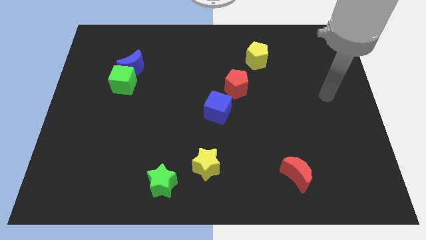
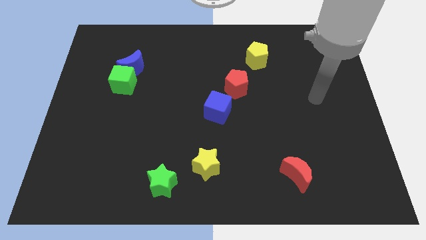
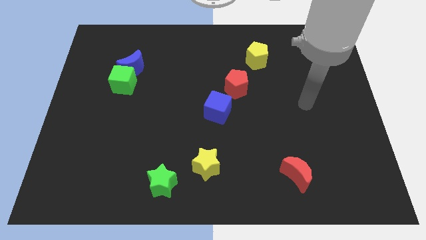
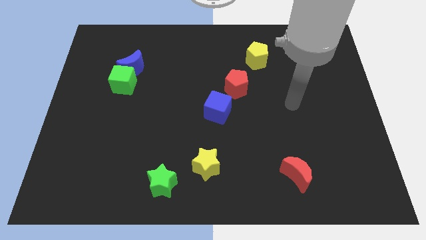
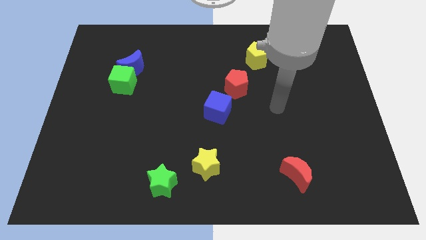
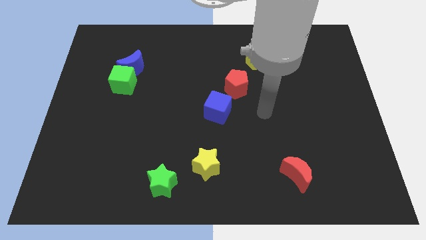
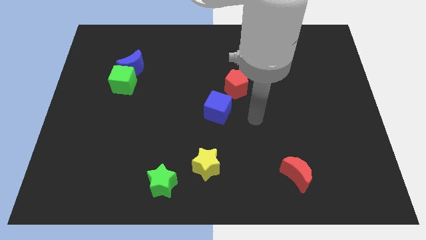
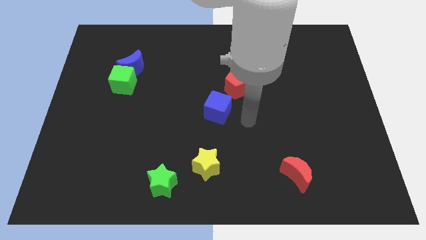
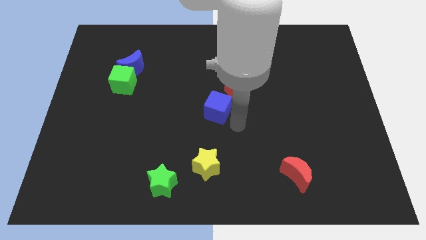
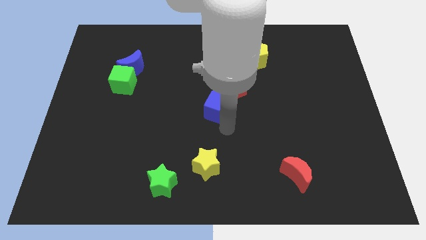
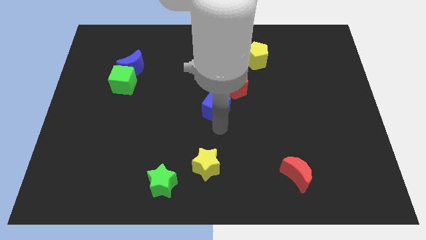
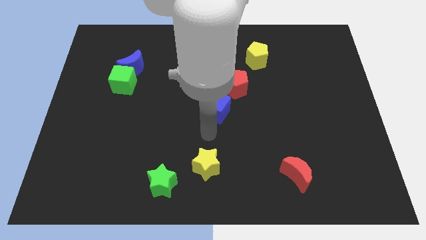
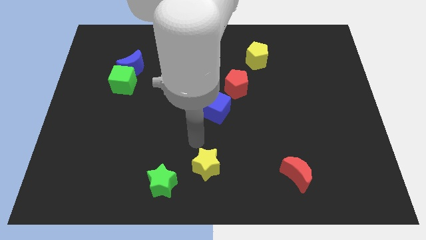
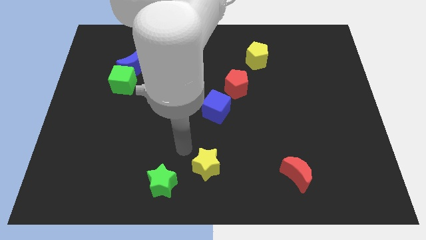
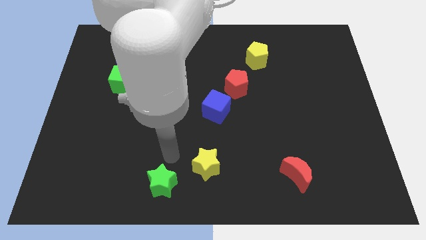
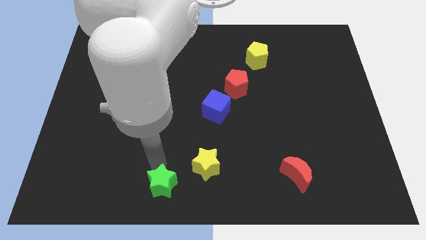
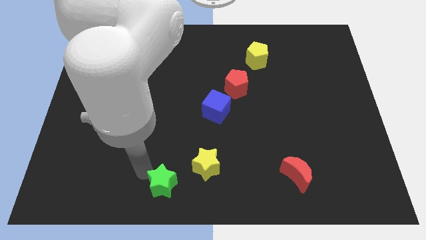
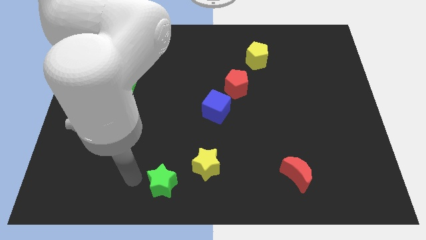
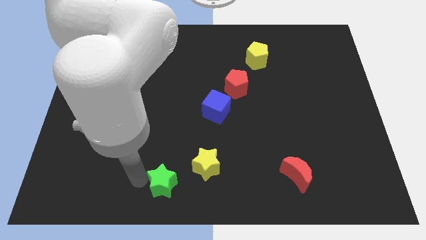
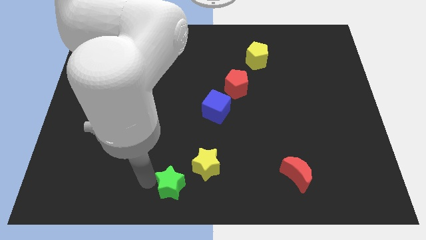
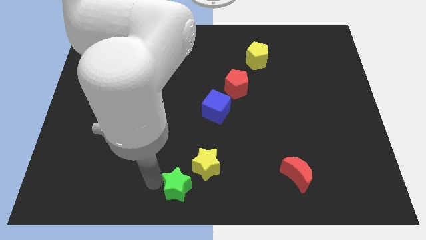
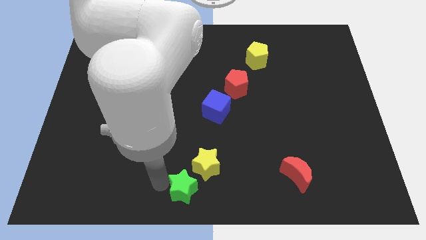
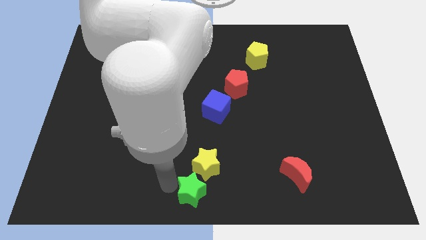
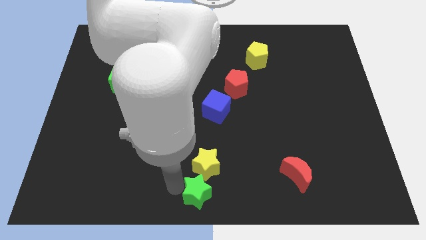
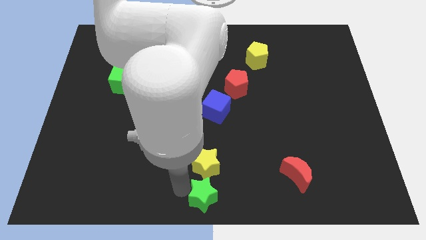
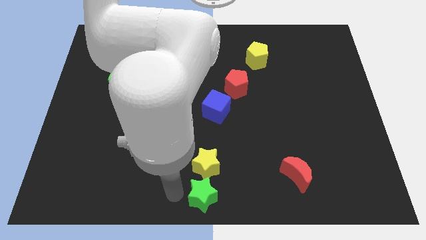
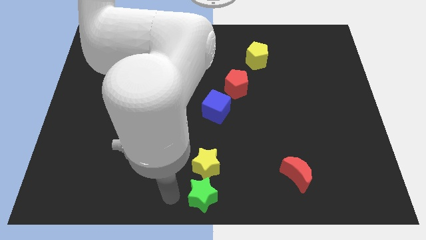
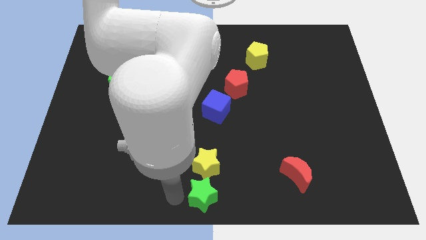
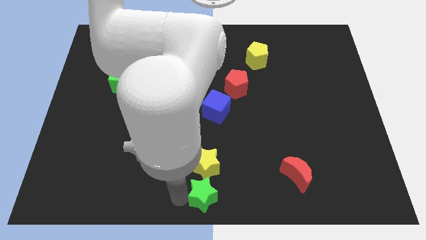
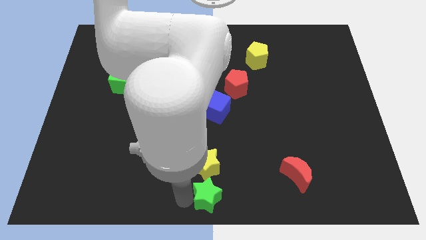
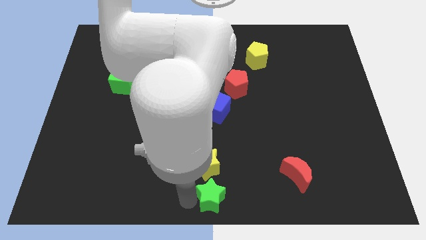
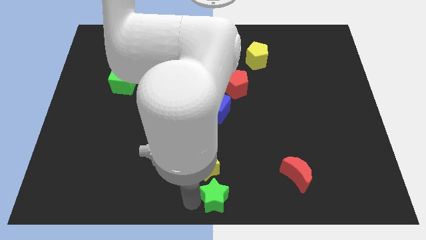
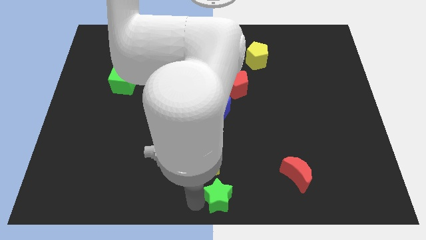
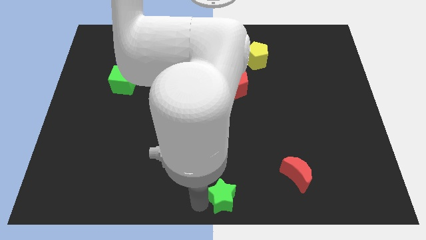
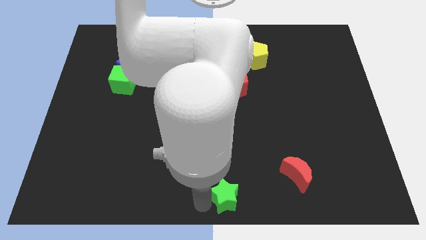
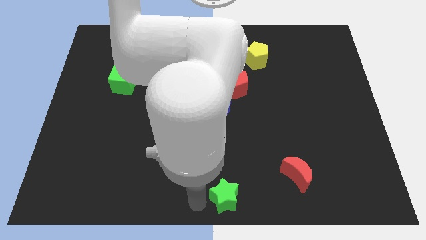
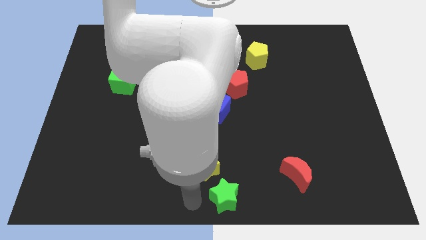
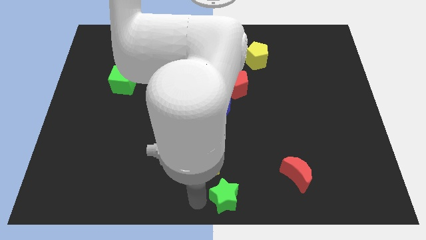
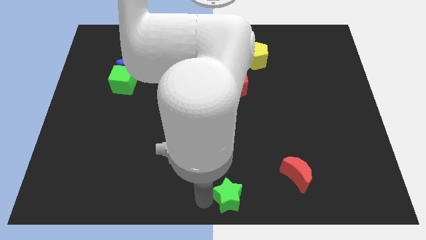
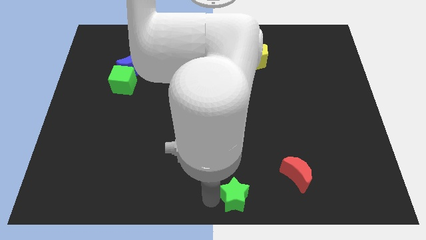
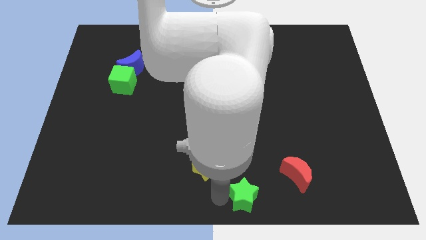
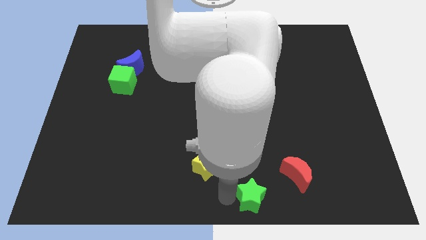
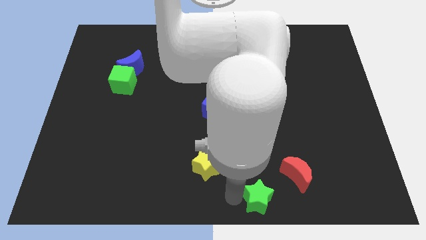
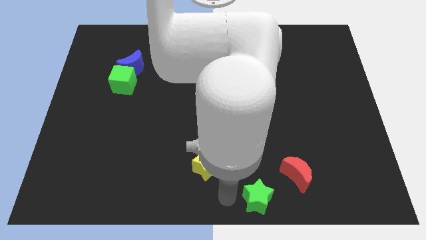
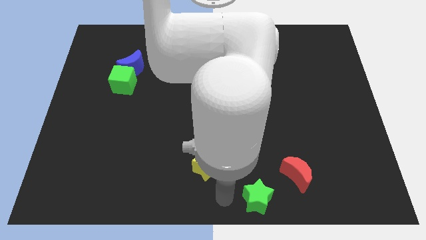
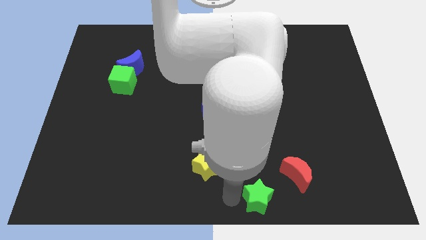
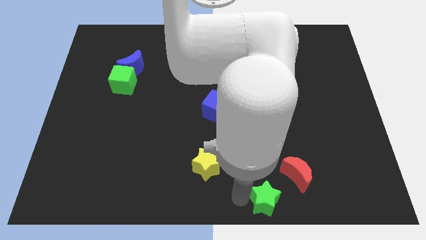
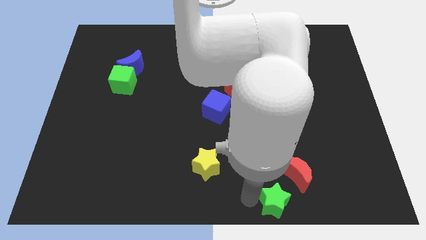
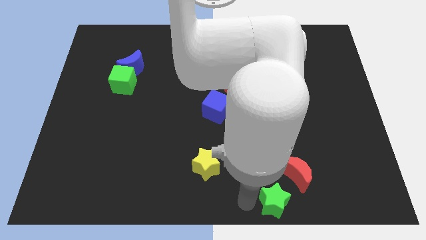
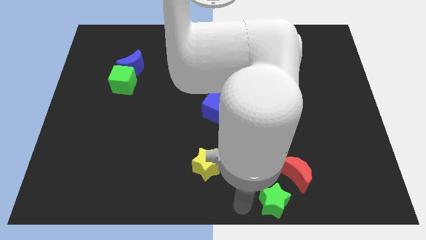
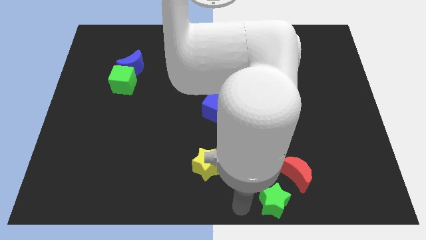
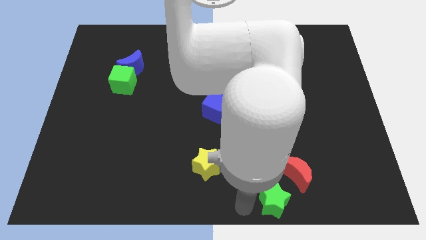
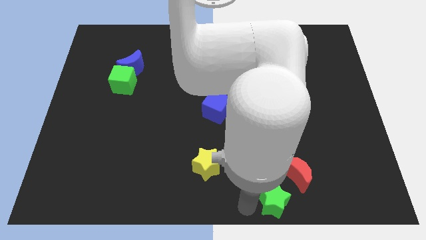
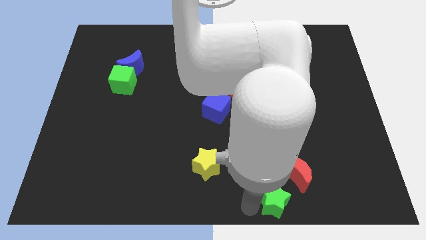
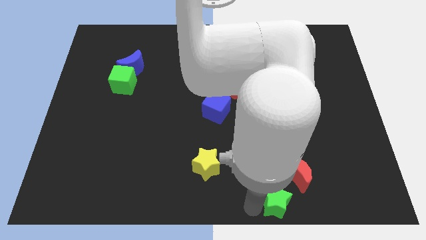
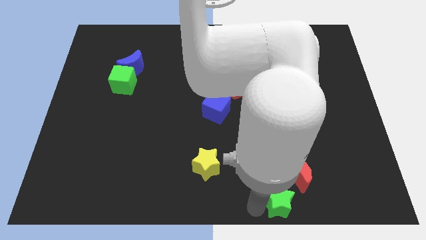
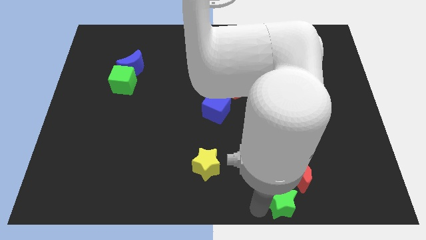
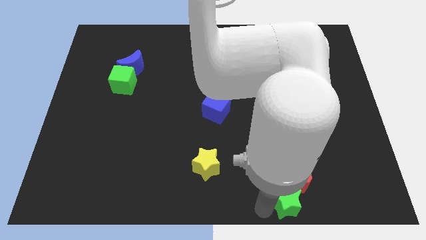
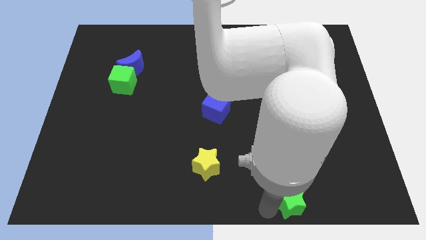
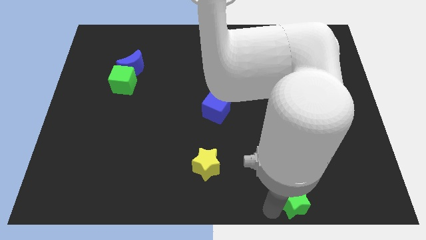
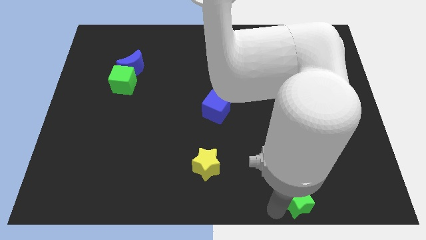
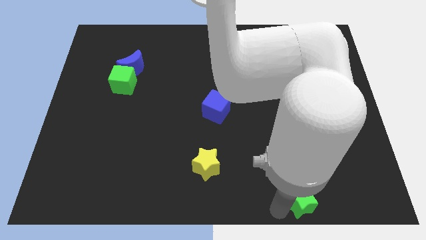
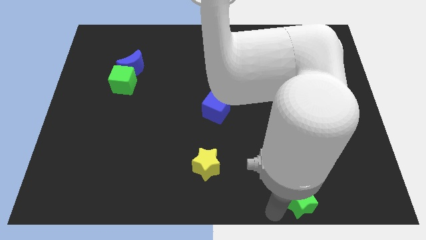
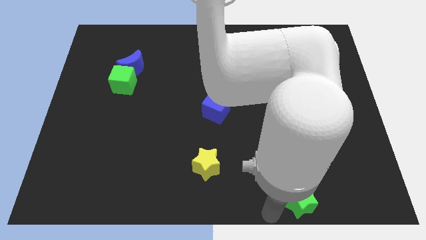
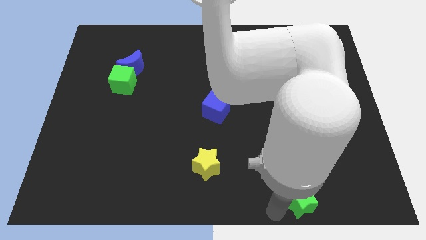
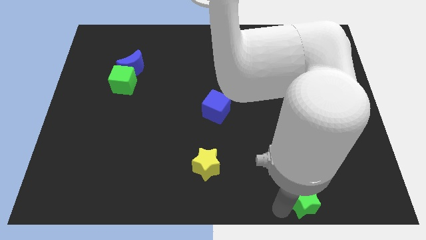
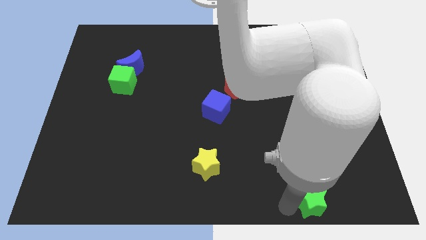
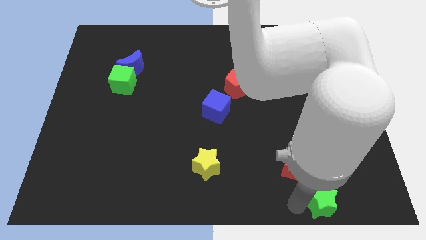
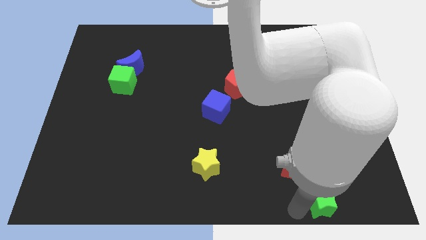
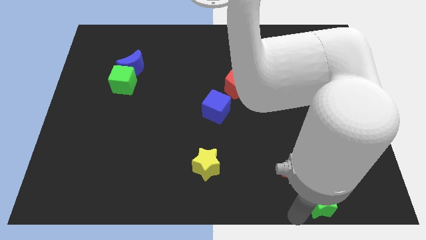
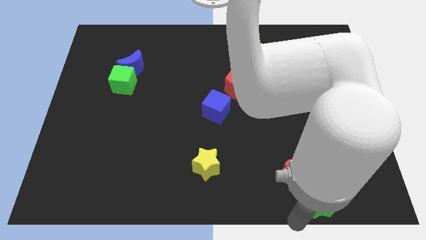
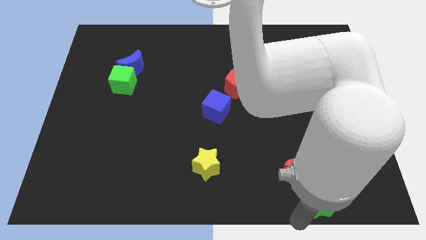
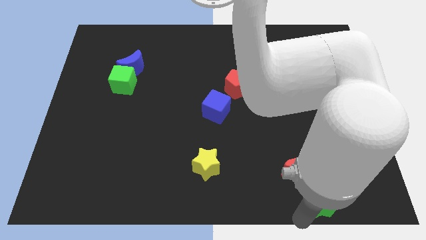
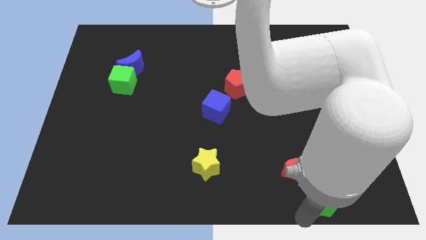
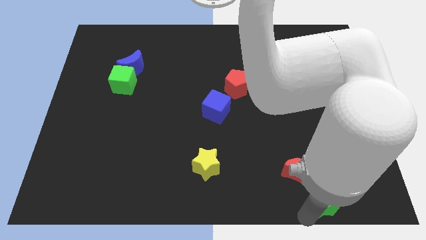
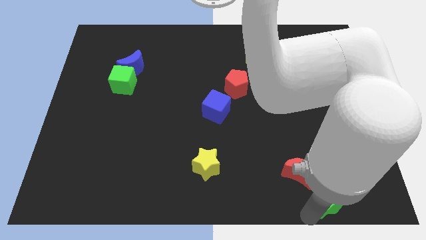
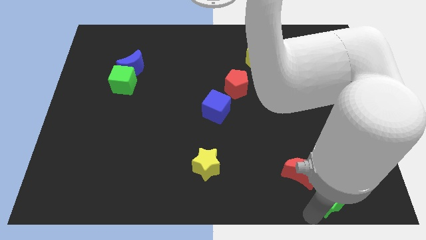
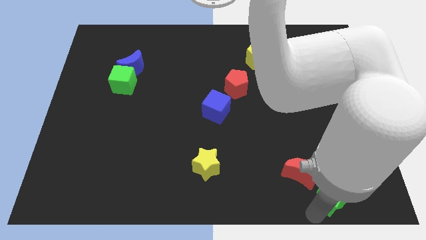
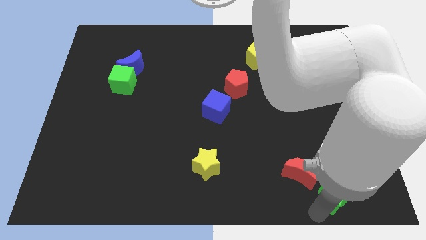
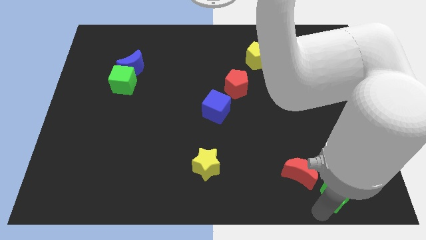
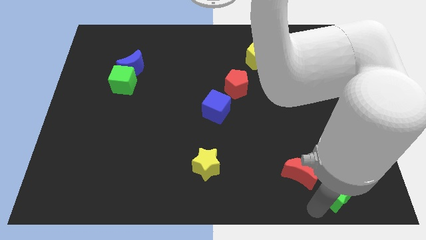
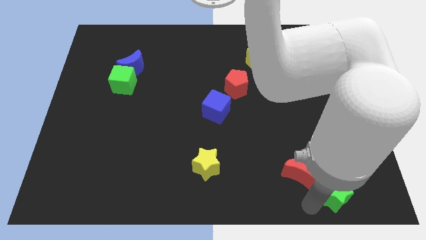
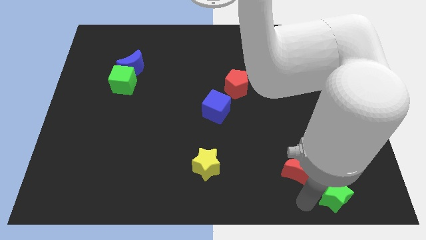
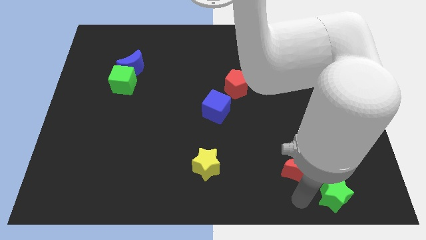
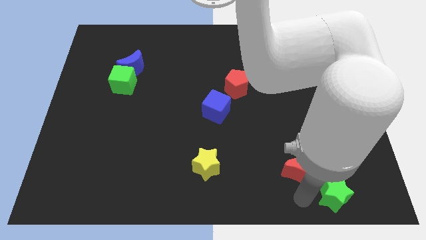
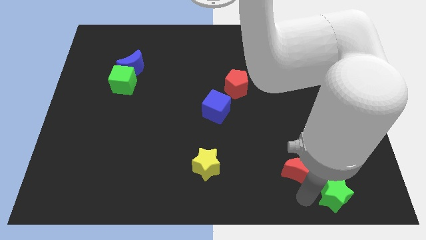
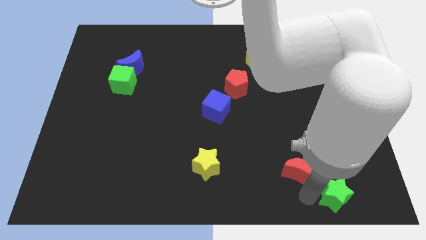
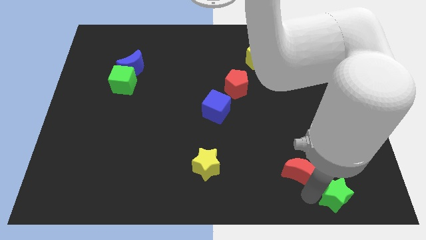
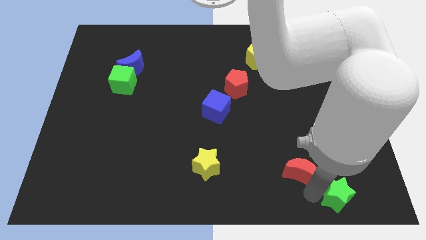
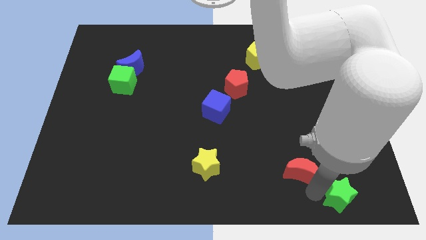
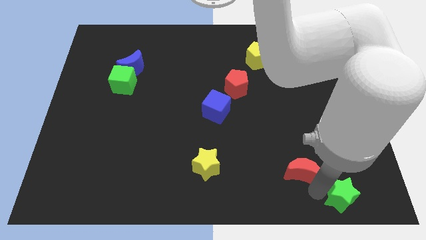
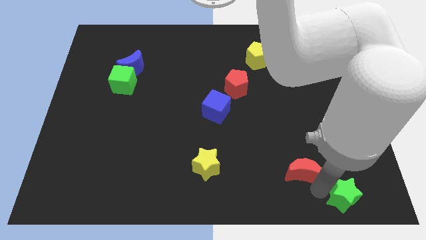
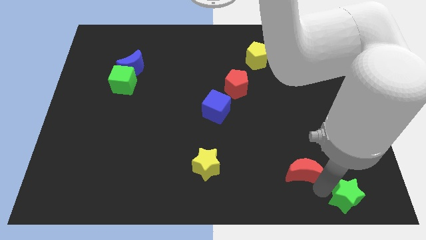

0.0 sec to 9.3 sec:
slide the green star to the bottom right corner
